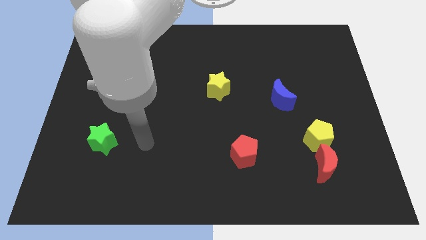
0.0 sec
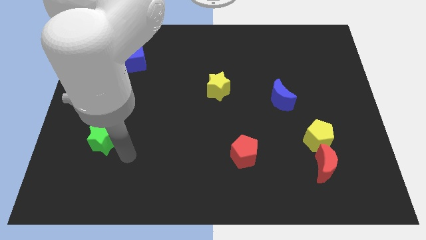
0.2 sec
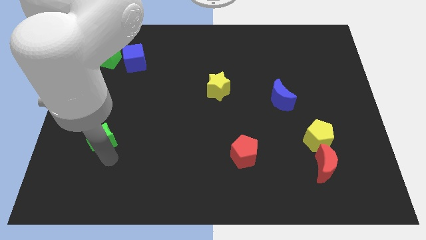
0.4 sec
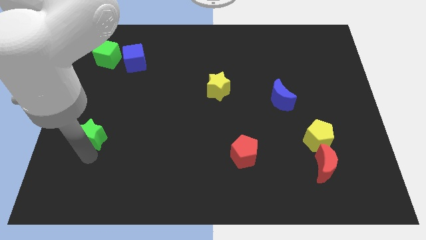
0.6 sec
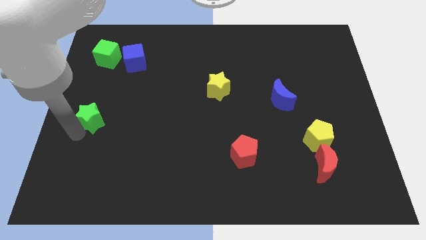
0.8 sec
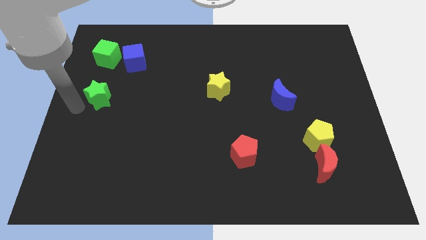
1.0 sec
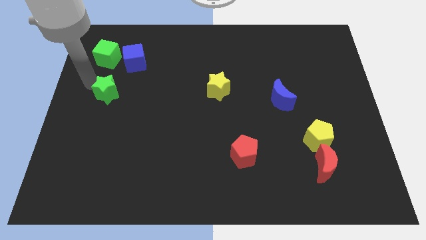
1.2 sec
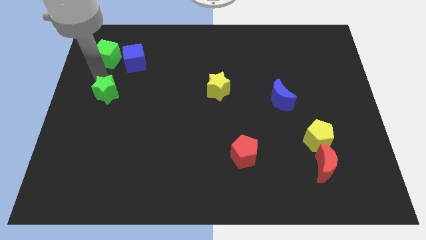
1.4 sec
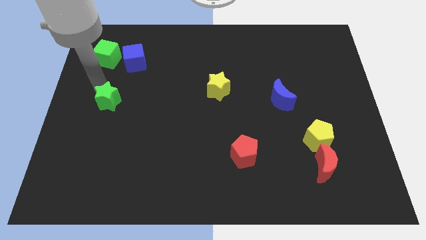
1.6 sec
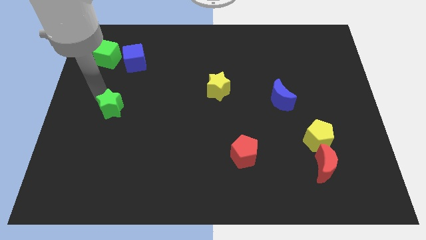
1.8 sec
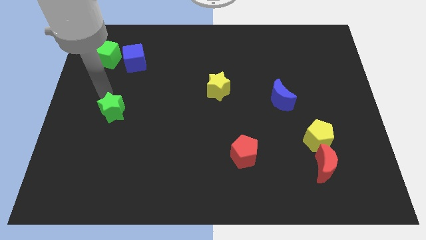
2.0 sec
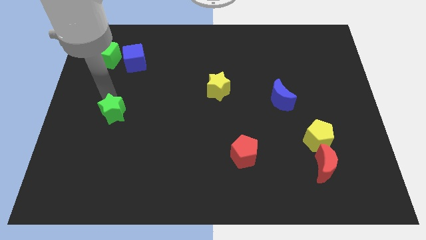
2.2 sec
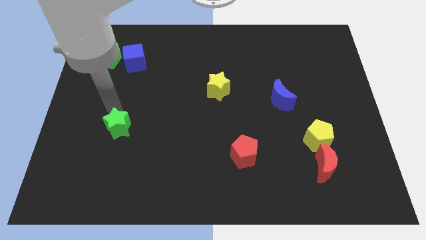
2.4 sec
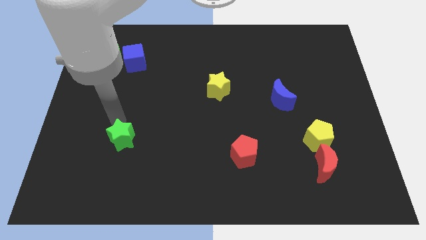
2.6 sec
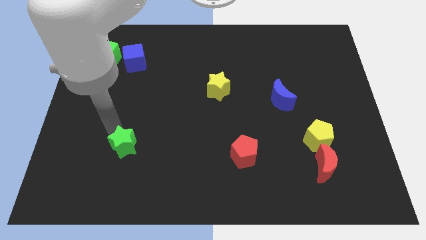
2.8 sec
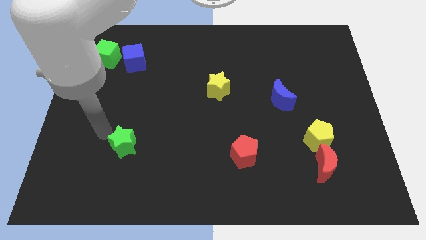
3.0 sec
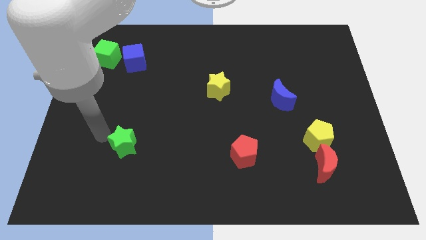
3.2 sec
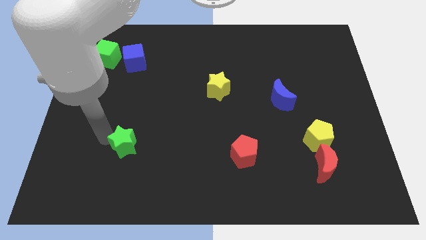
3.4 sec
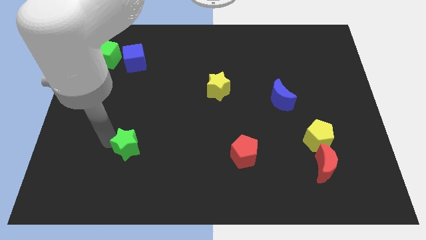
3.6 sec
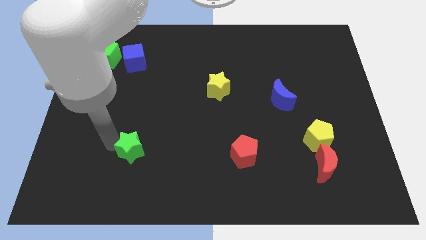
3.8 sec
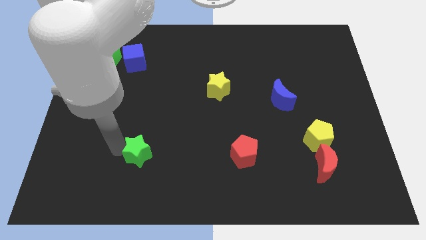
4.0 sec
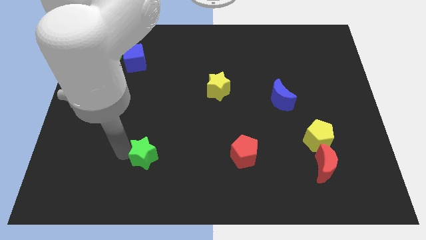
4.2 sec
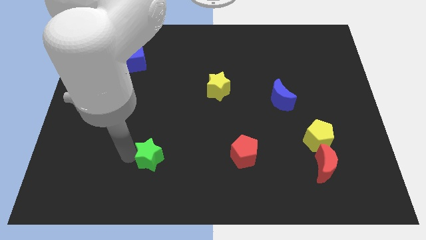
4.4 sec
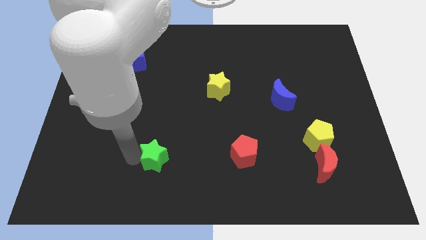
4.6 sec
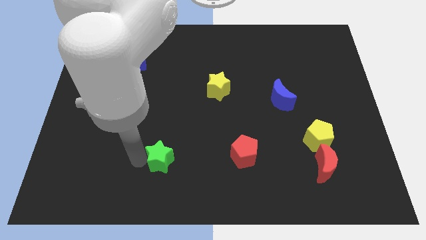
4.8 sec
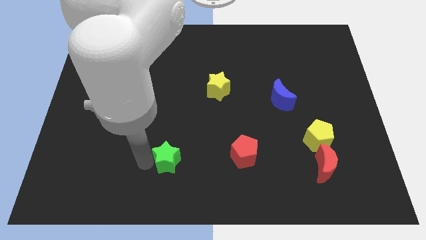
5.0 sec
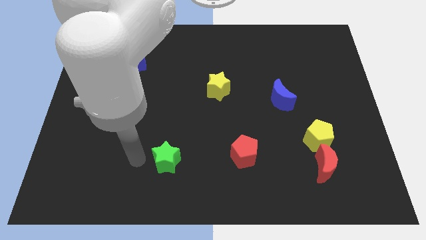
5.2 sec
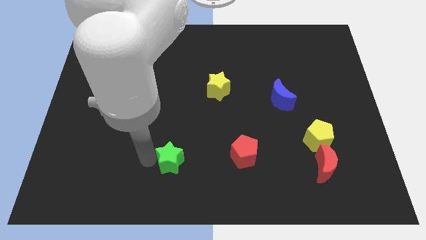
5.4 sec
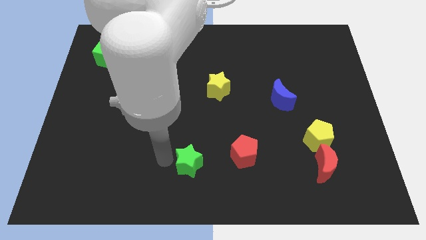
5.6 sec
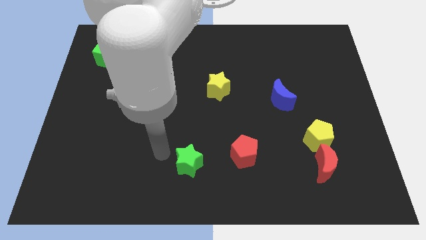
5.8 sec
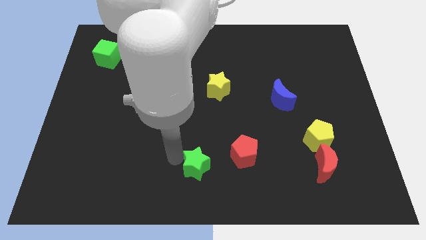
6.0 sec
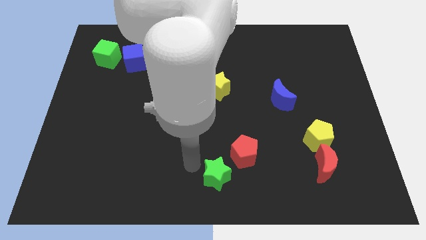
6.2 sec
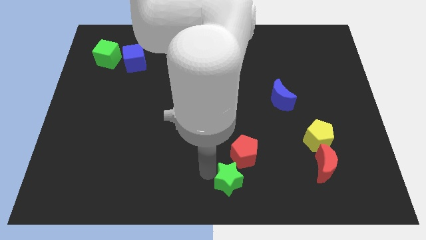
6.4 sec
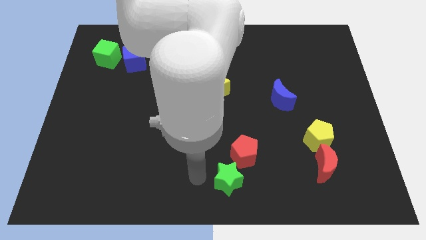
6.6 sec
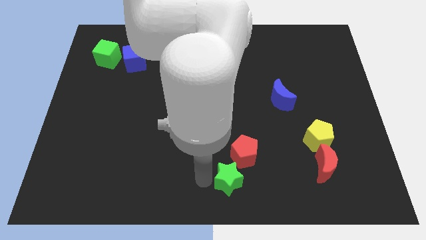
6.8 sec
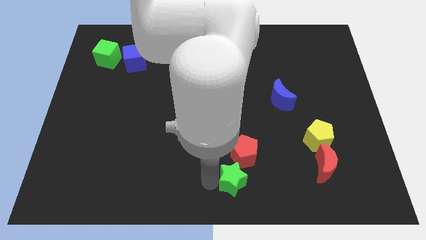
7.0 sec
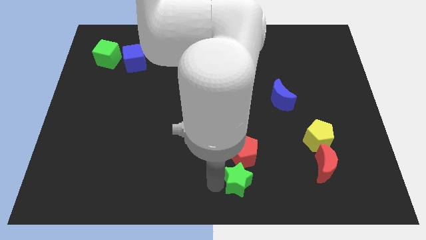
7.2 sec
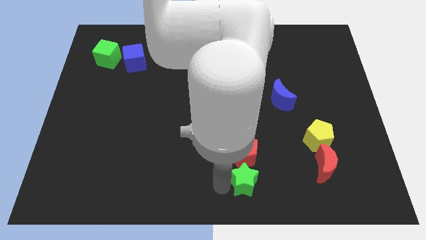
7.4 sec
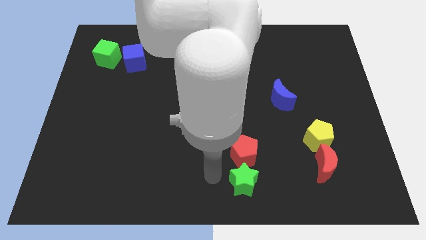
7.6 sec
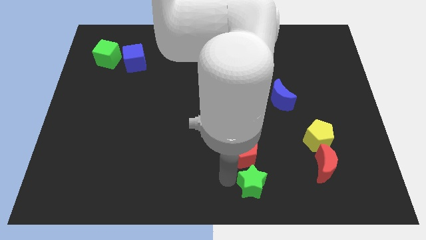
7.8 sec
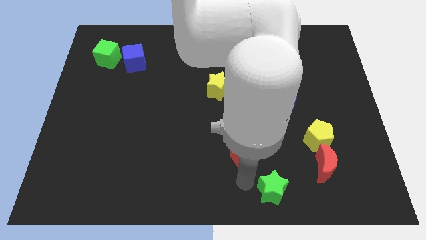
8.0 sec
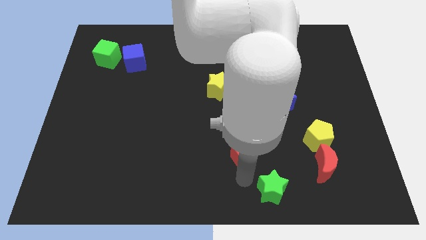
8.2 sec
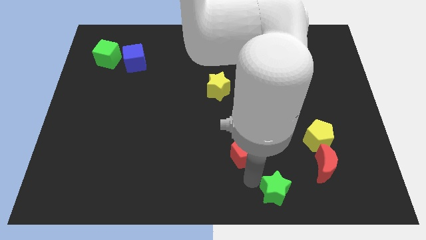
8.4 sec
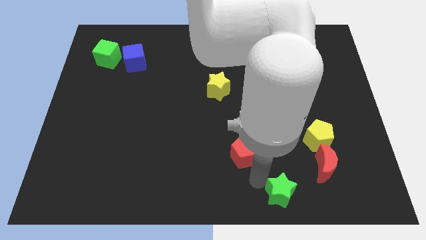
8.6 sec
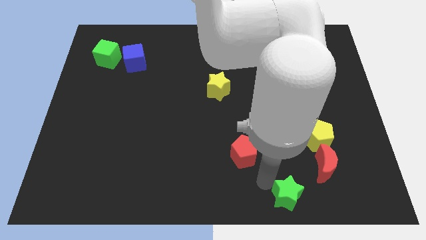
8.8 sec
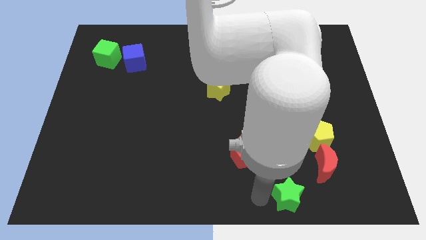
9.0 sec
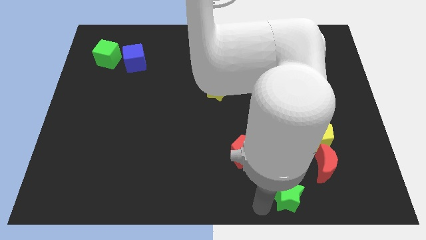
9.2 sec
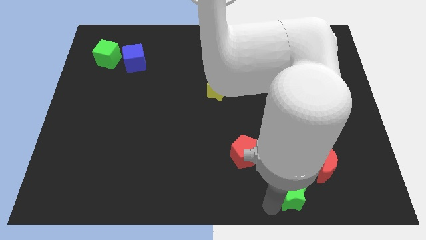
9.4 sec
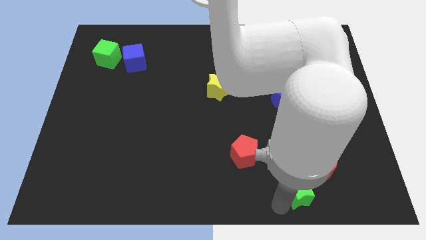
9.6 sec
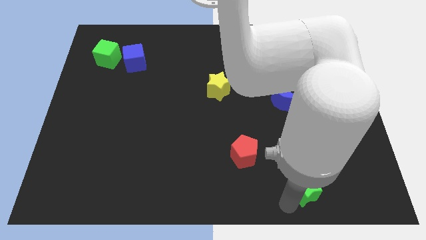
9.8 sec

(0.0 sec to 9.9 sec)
put the green star below the yellow pentagon

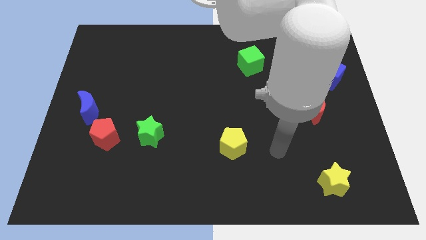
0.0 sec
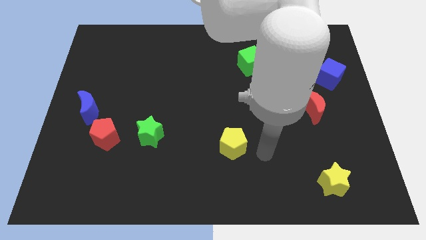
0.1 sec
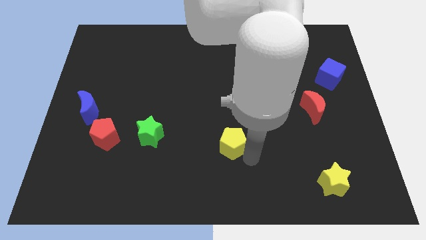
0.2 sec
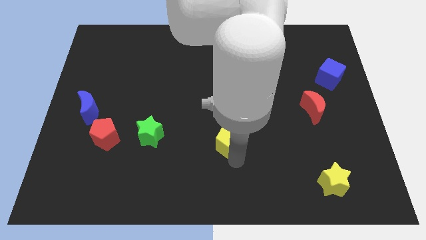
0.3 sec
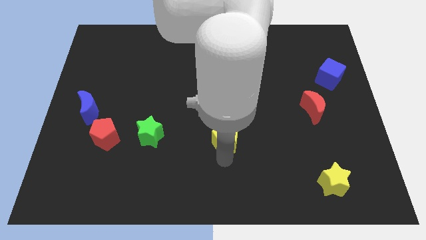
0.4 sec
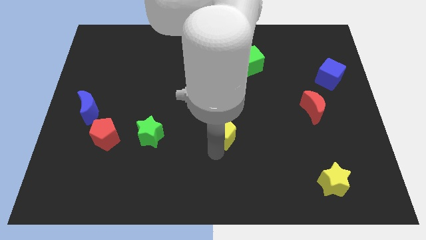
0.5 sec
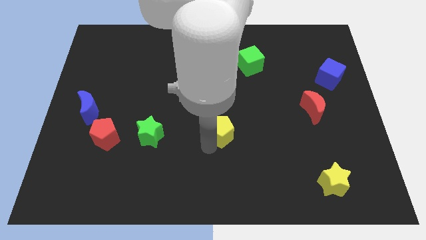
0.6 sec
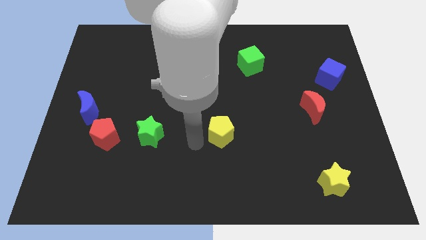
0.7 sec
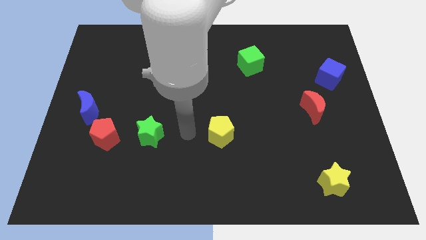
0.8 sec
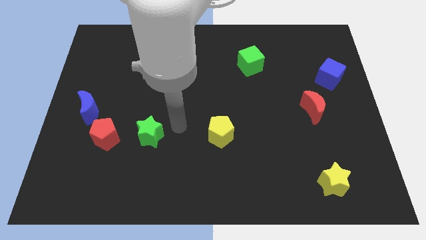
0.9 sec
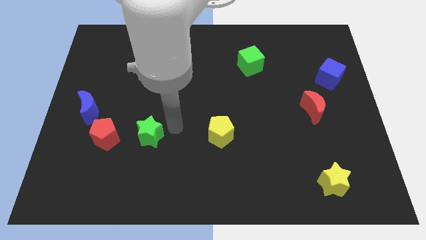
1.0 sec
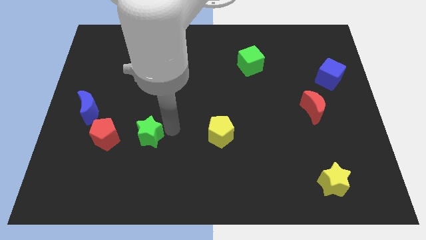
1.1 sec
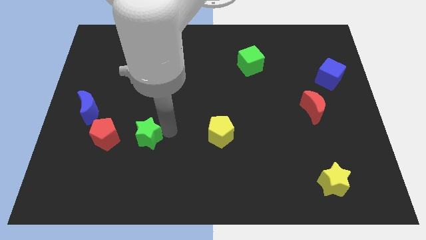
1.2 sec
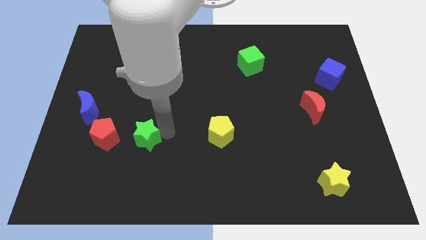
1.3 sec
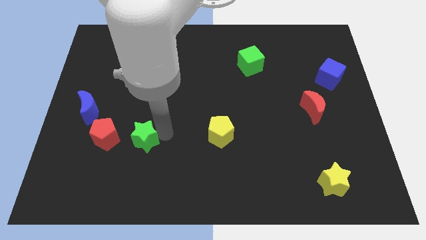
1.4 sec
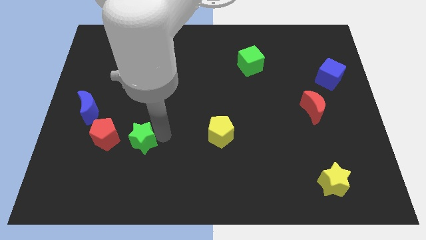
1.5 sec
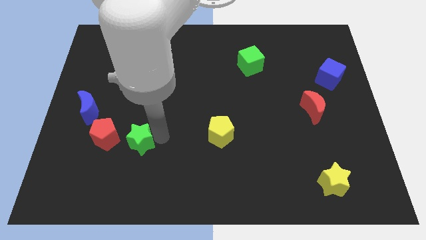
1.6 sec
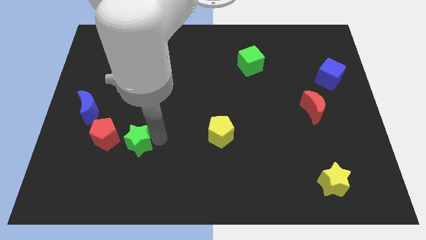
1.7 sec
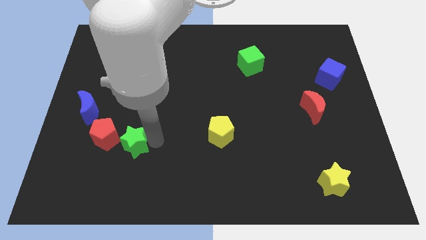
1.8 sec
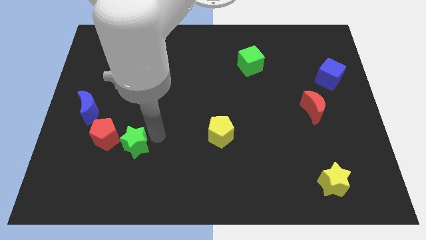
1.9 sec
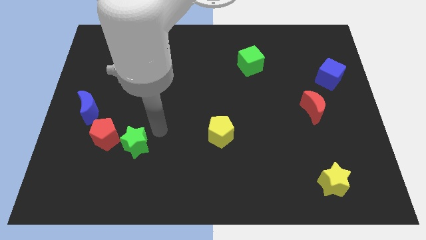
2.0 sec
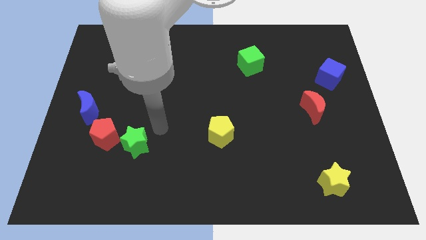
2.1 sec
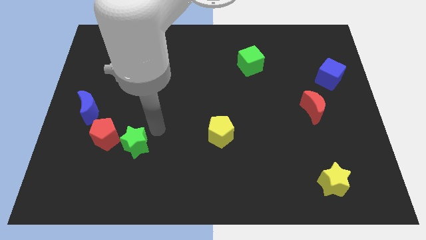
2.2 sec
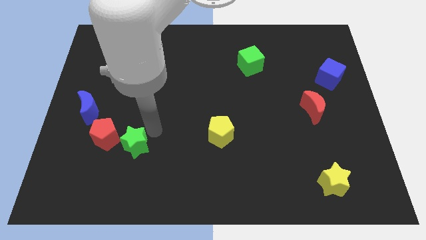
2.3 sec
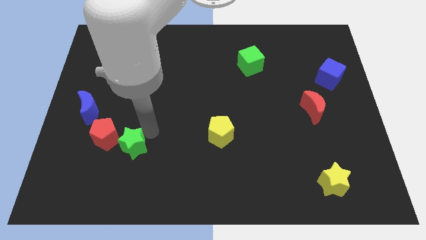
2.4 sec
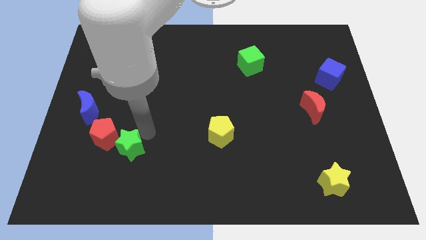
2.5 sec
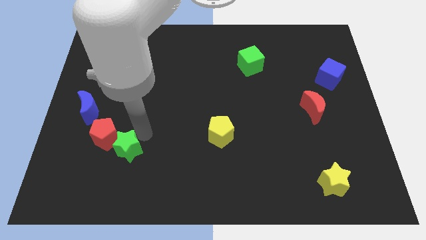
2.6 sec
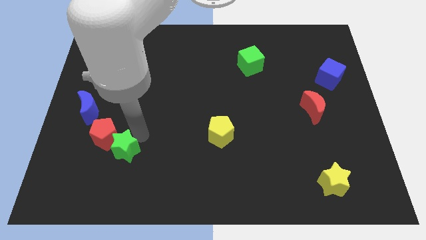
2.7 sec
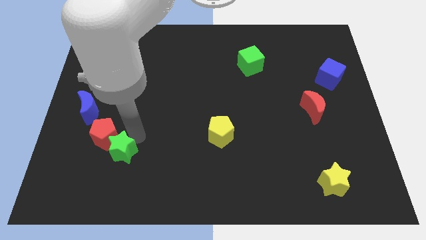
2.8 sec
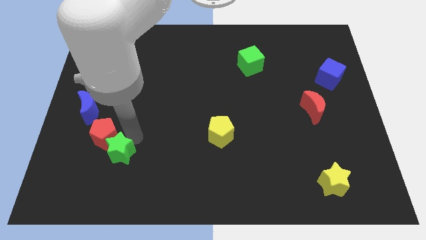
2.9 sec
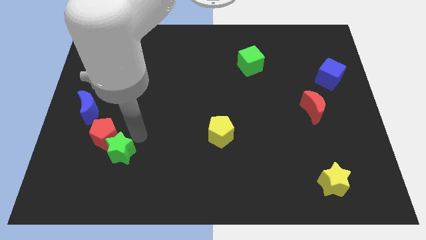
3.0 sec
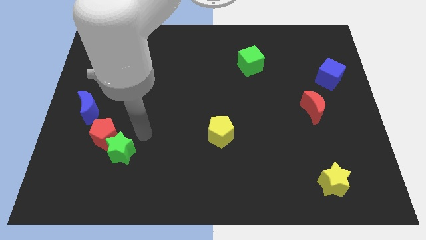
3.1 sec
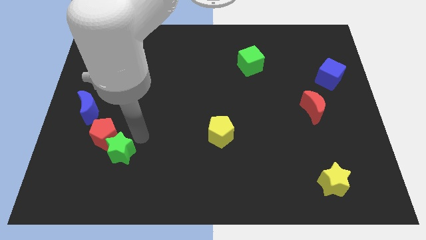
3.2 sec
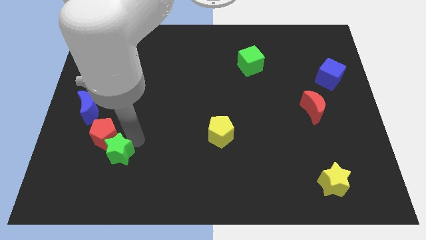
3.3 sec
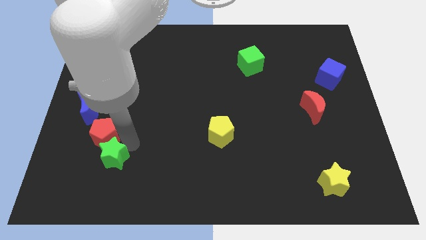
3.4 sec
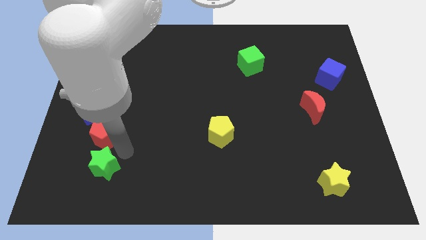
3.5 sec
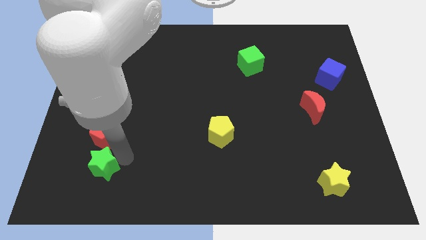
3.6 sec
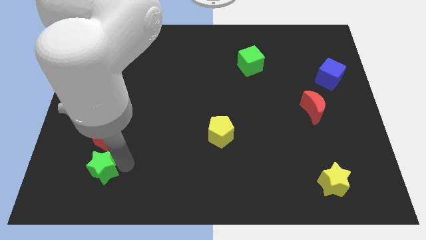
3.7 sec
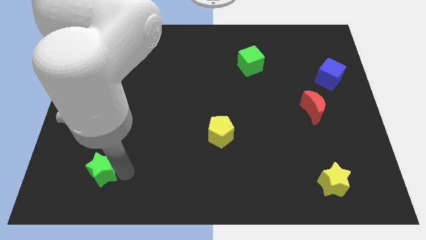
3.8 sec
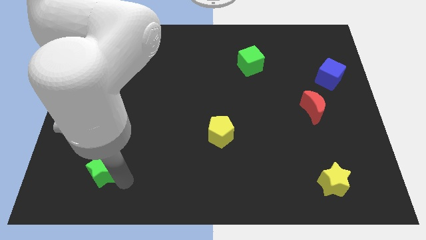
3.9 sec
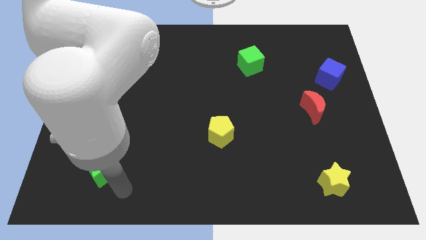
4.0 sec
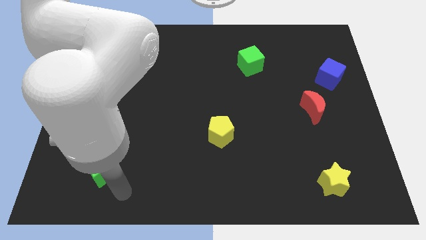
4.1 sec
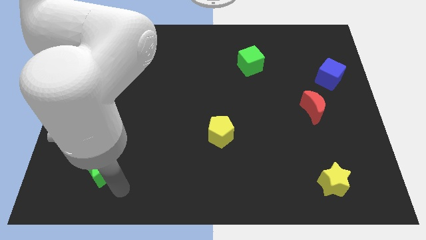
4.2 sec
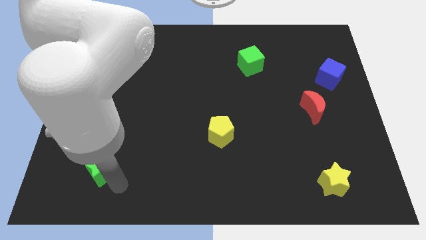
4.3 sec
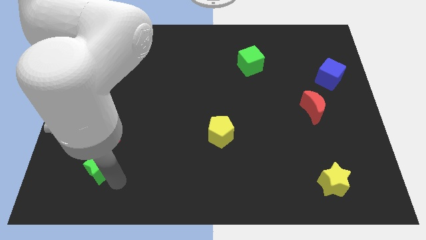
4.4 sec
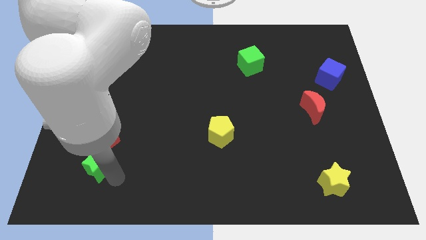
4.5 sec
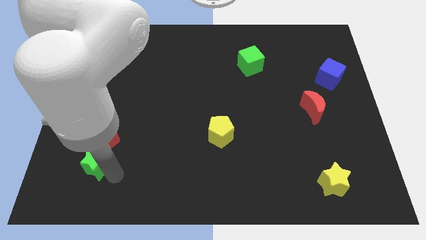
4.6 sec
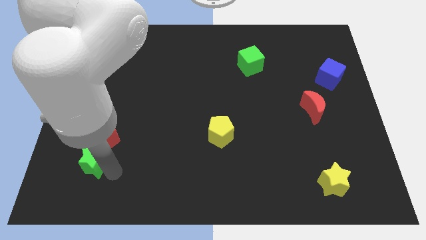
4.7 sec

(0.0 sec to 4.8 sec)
put the green star below the blue moon
